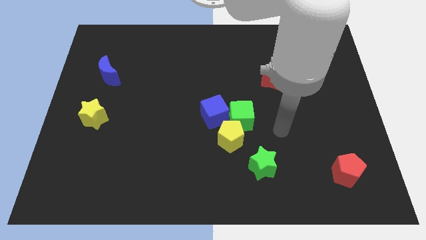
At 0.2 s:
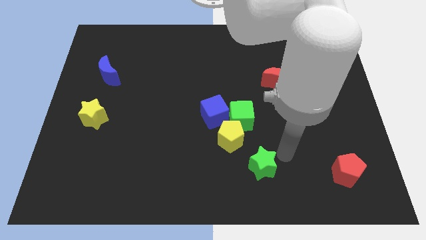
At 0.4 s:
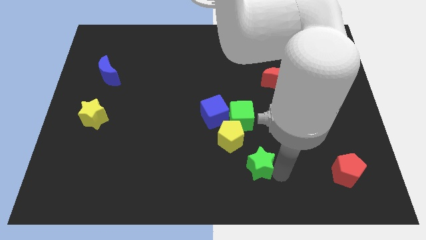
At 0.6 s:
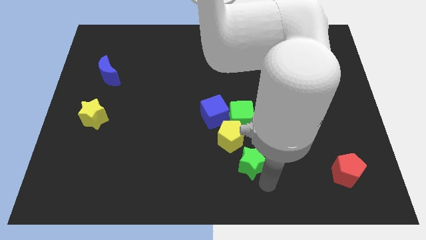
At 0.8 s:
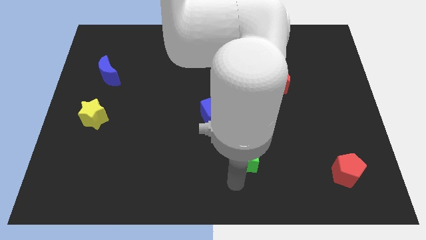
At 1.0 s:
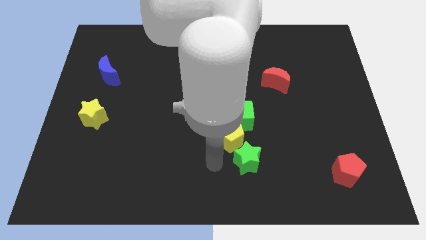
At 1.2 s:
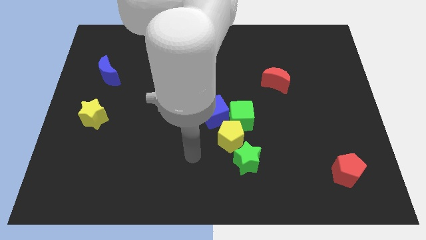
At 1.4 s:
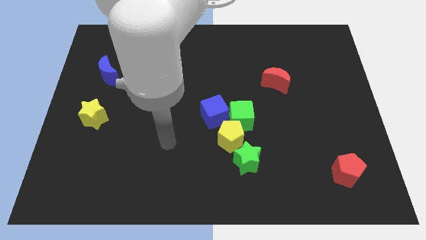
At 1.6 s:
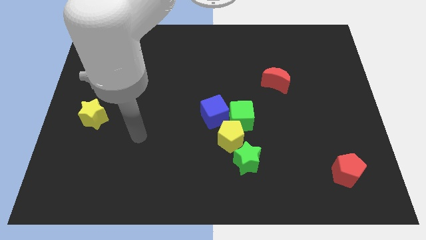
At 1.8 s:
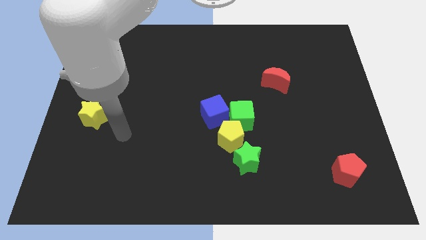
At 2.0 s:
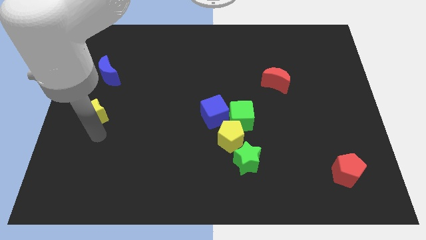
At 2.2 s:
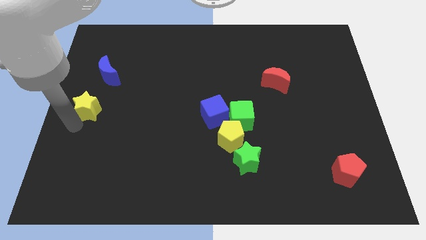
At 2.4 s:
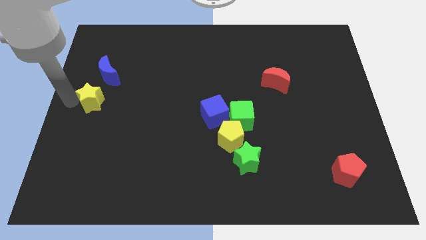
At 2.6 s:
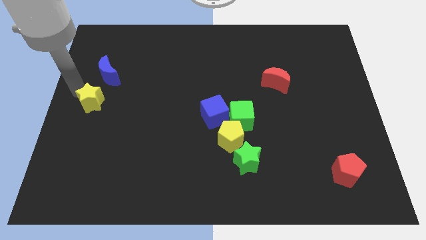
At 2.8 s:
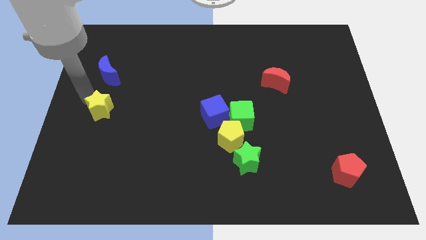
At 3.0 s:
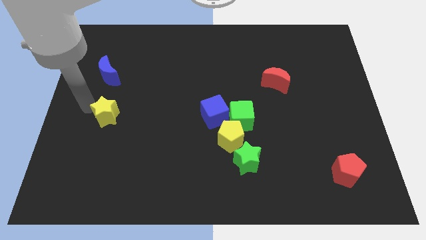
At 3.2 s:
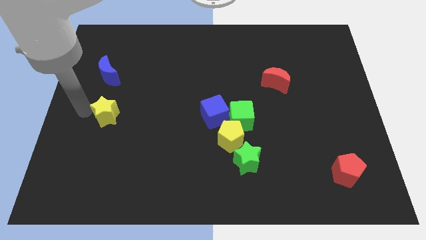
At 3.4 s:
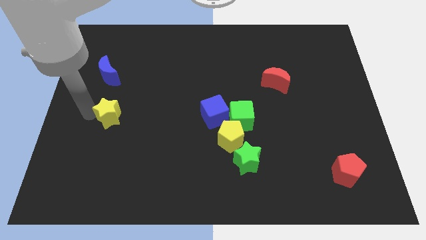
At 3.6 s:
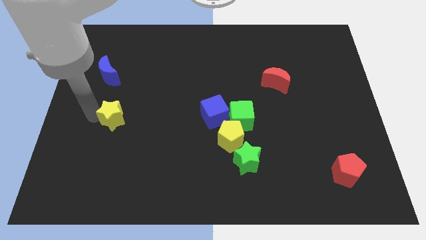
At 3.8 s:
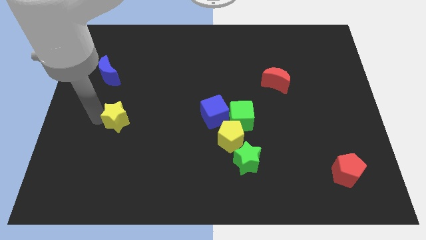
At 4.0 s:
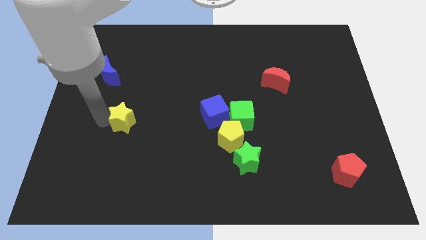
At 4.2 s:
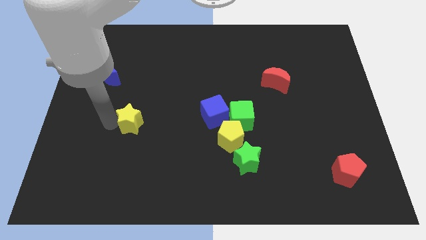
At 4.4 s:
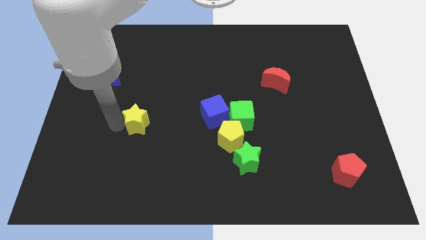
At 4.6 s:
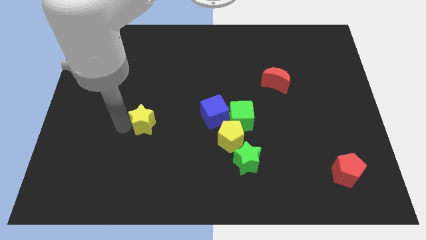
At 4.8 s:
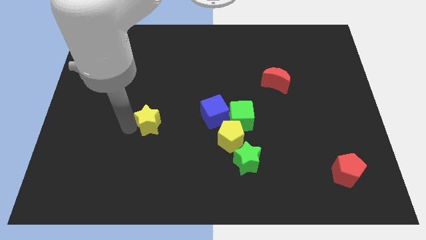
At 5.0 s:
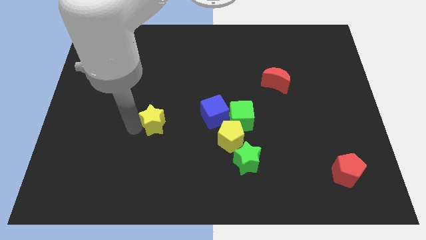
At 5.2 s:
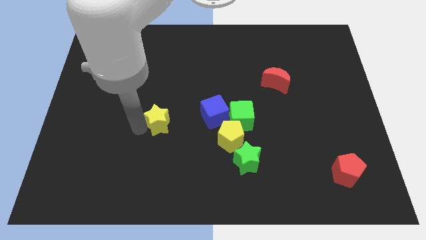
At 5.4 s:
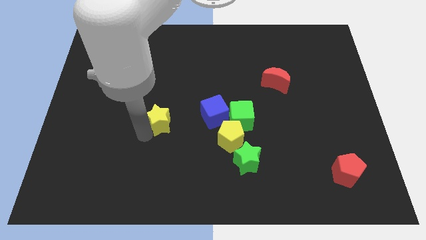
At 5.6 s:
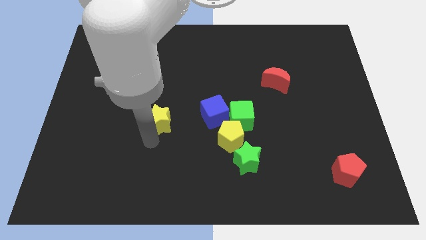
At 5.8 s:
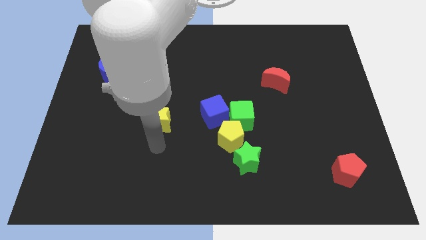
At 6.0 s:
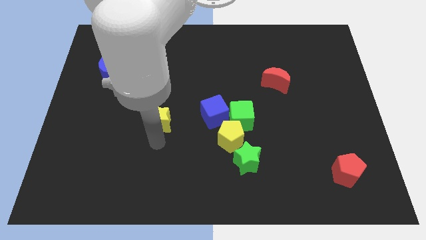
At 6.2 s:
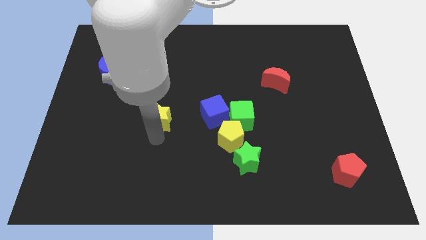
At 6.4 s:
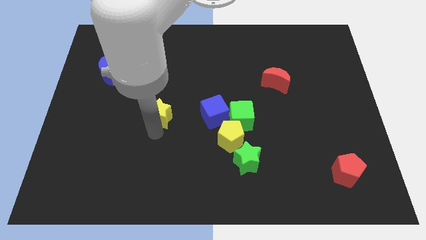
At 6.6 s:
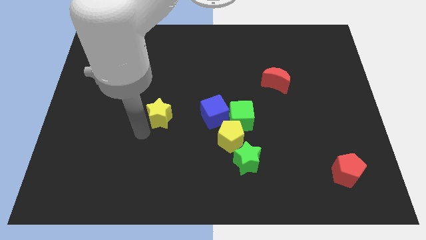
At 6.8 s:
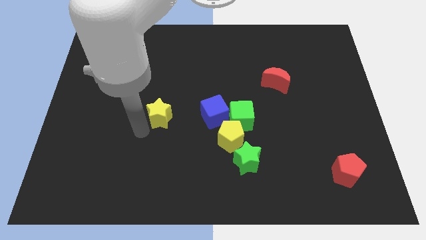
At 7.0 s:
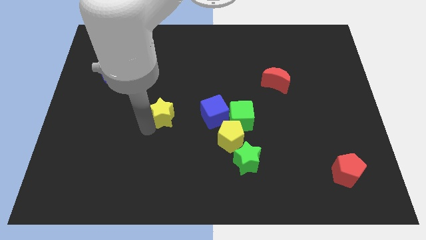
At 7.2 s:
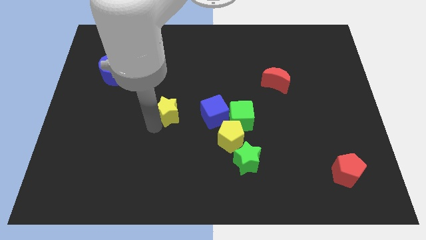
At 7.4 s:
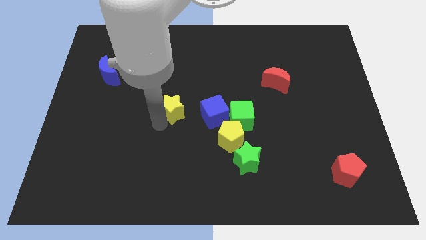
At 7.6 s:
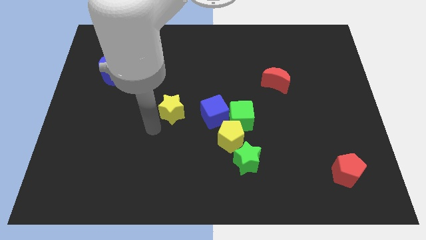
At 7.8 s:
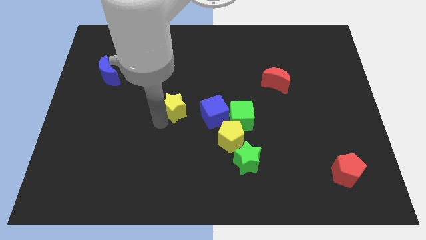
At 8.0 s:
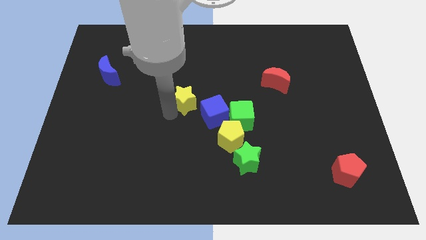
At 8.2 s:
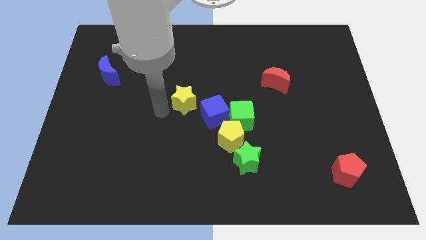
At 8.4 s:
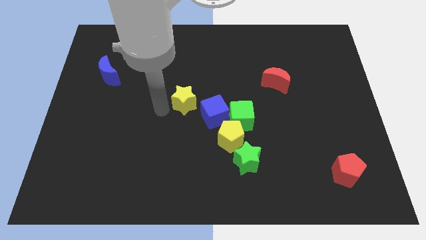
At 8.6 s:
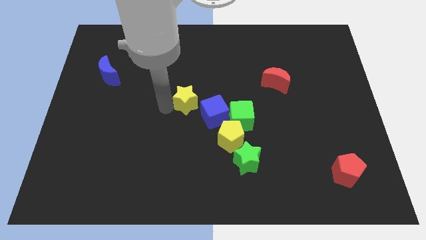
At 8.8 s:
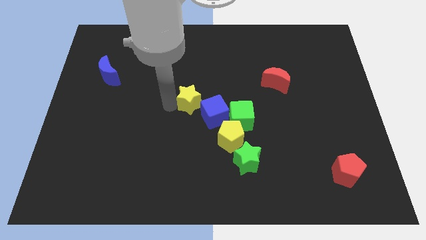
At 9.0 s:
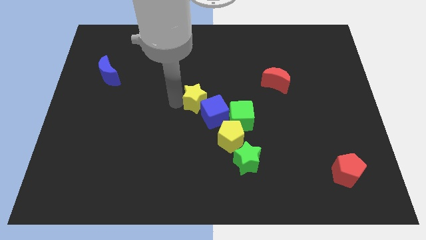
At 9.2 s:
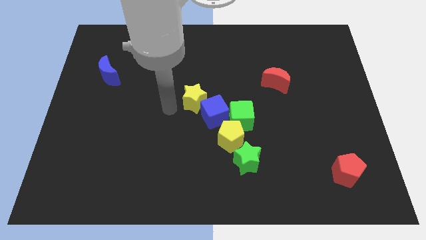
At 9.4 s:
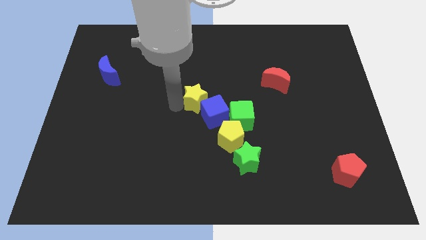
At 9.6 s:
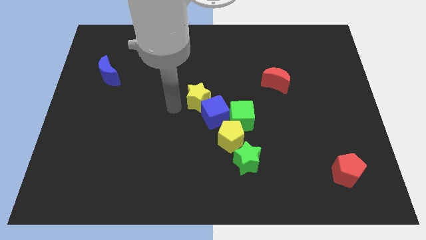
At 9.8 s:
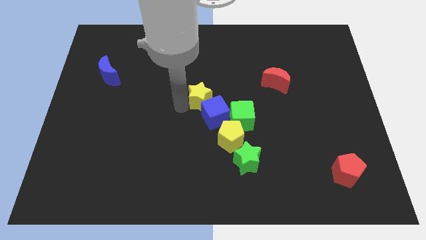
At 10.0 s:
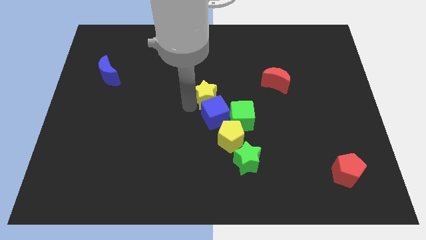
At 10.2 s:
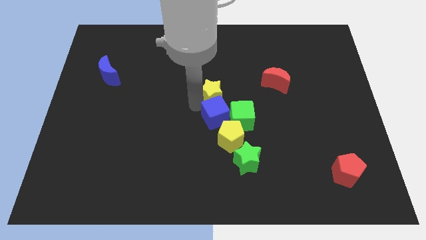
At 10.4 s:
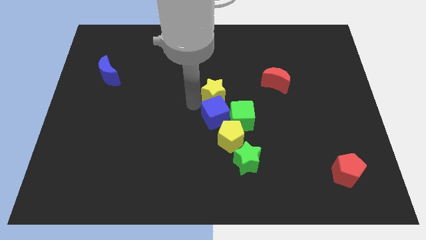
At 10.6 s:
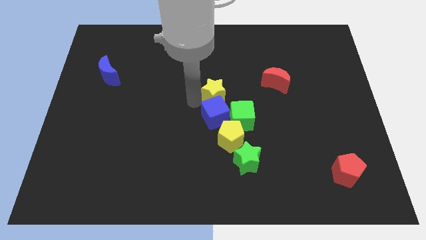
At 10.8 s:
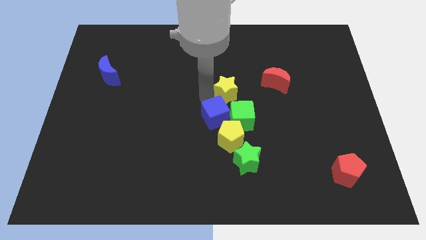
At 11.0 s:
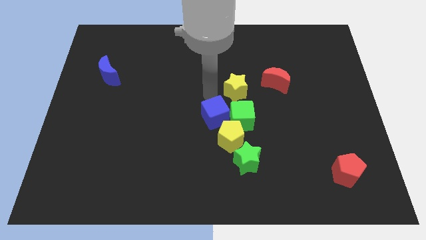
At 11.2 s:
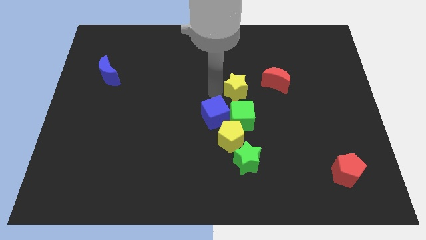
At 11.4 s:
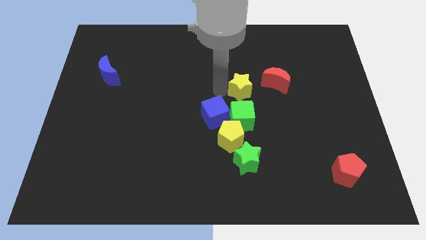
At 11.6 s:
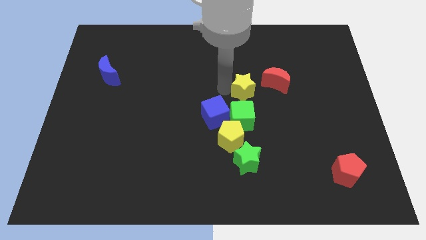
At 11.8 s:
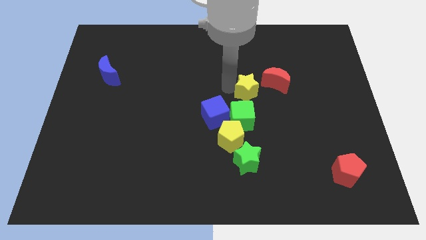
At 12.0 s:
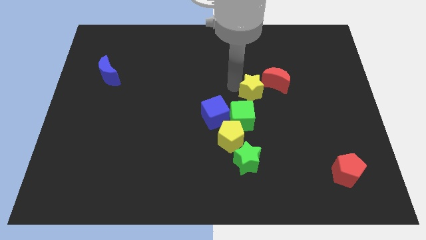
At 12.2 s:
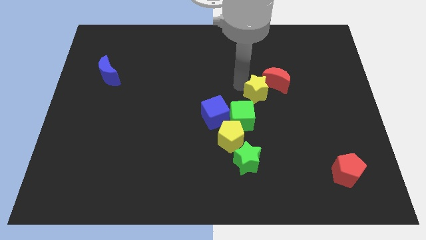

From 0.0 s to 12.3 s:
slide the yellow star close to the red moon

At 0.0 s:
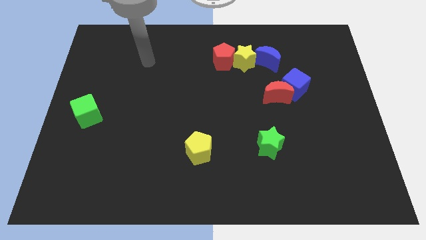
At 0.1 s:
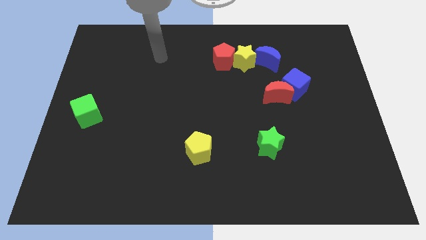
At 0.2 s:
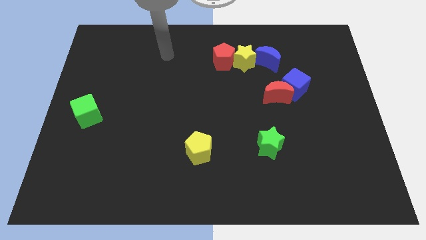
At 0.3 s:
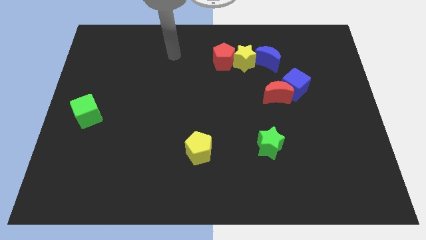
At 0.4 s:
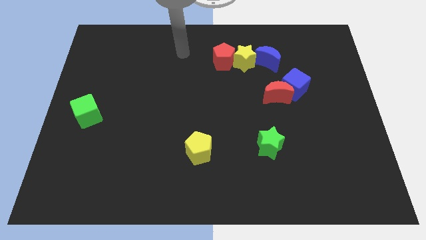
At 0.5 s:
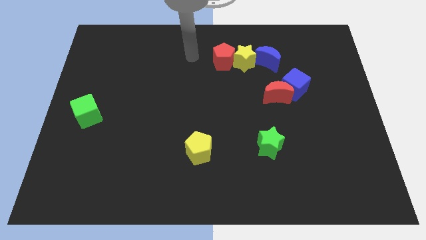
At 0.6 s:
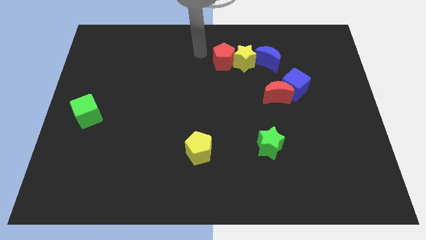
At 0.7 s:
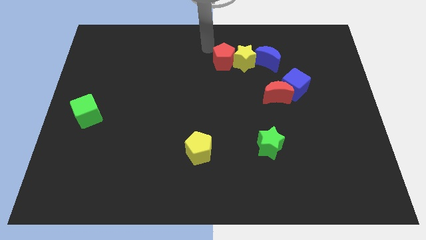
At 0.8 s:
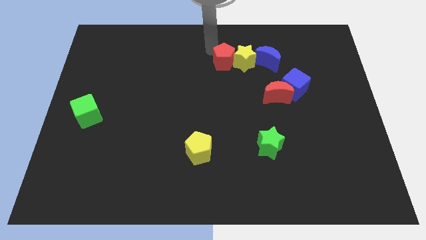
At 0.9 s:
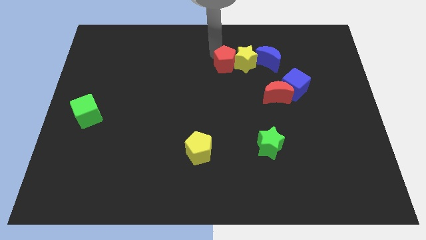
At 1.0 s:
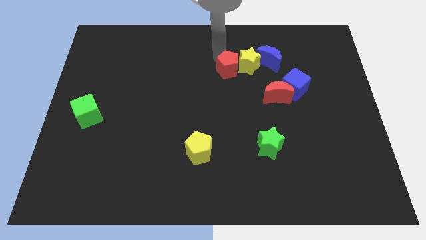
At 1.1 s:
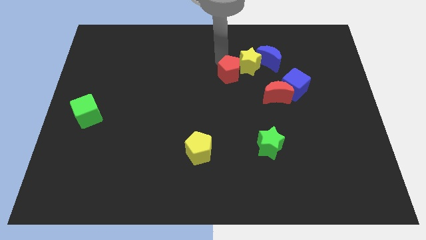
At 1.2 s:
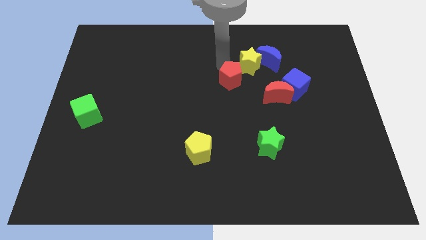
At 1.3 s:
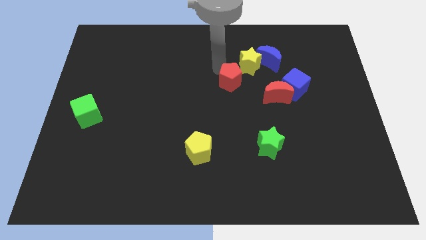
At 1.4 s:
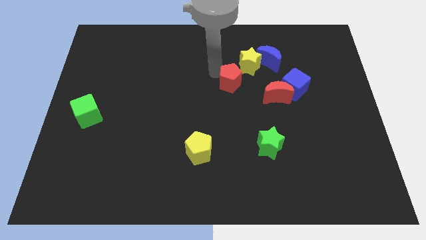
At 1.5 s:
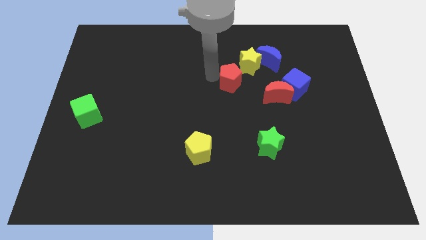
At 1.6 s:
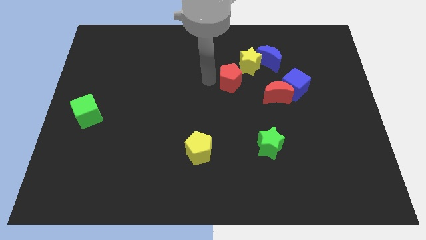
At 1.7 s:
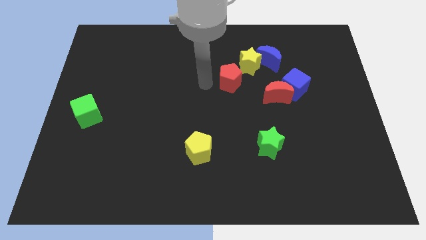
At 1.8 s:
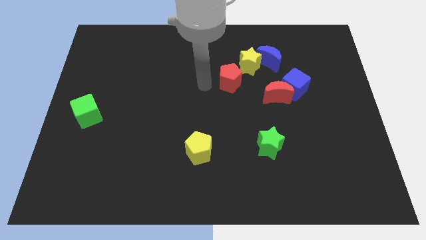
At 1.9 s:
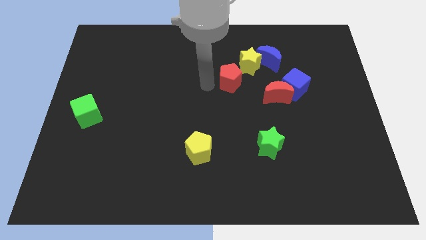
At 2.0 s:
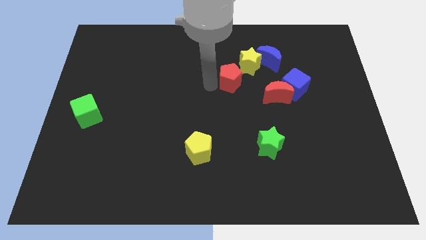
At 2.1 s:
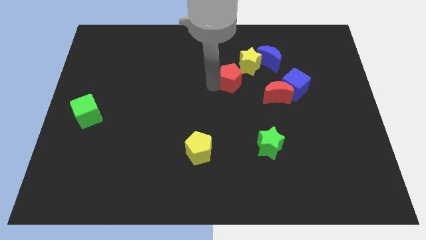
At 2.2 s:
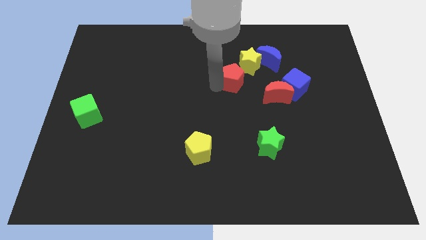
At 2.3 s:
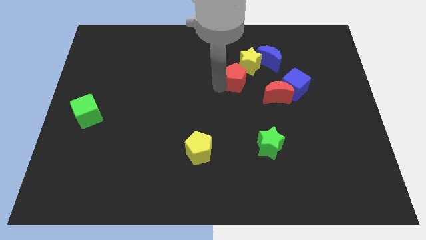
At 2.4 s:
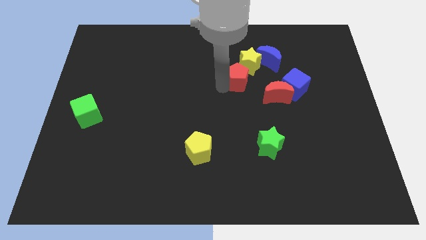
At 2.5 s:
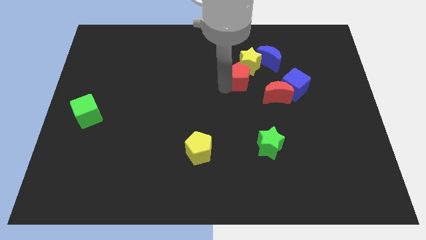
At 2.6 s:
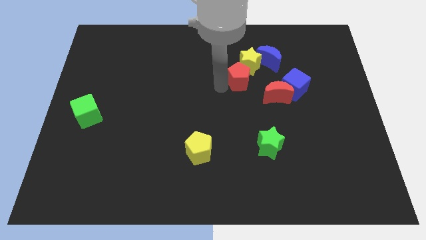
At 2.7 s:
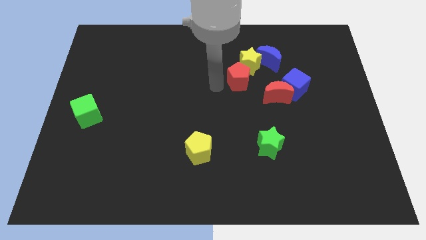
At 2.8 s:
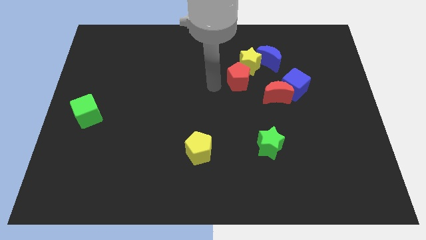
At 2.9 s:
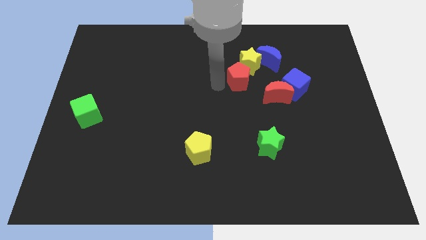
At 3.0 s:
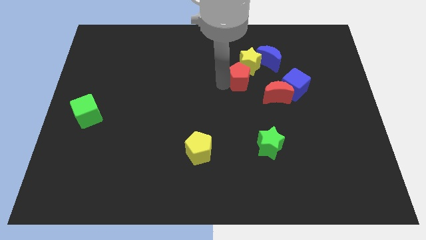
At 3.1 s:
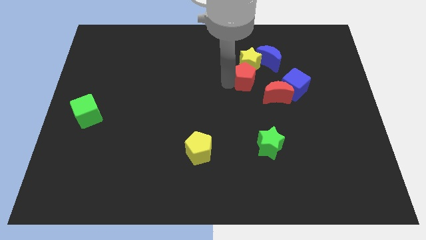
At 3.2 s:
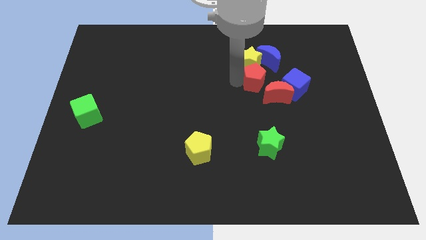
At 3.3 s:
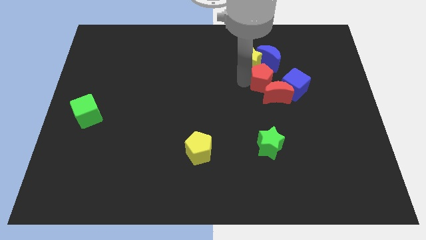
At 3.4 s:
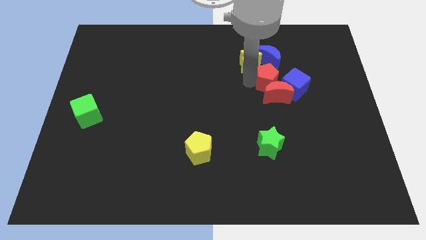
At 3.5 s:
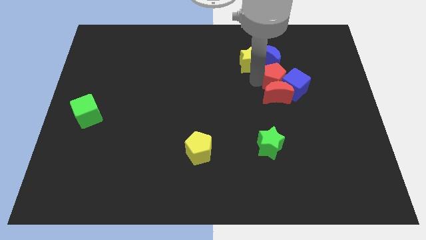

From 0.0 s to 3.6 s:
move the red pentagon towards the blue cube
